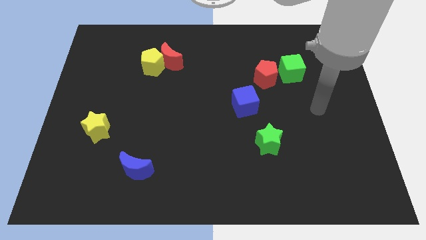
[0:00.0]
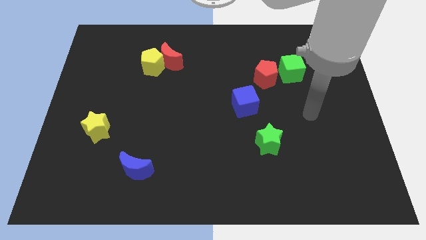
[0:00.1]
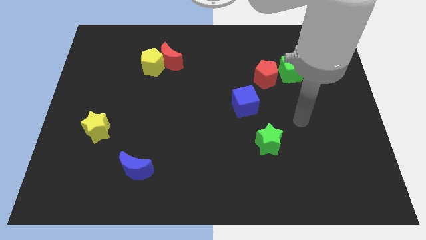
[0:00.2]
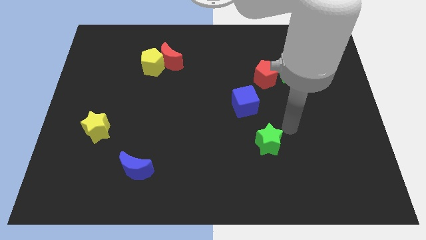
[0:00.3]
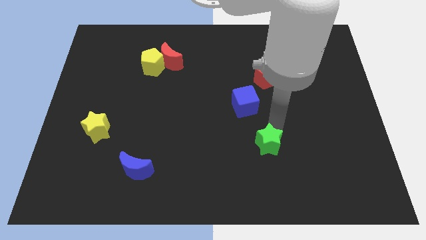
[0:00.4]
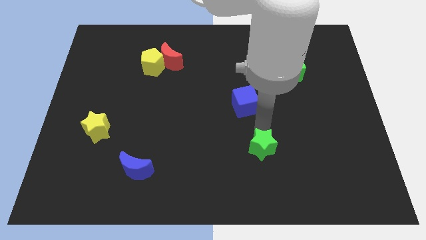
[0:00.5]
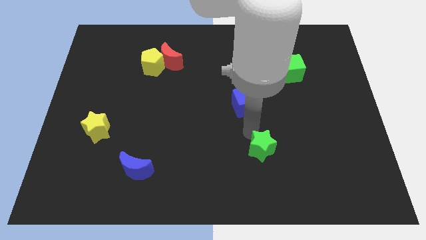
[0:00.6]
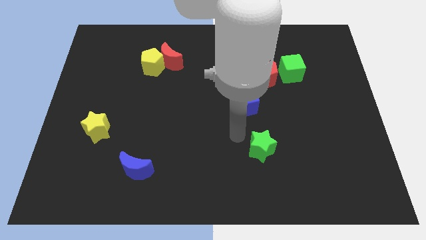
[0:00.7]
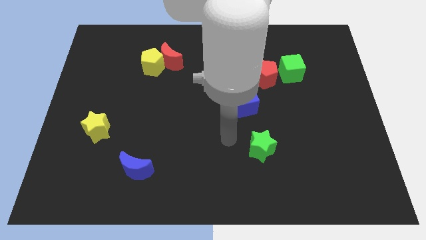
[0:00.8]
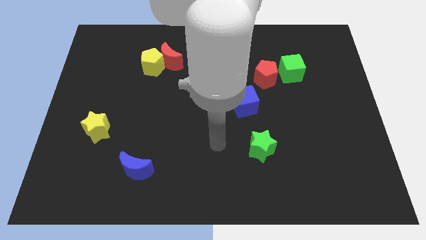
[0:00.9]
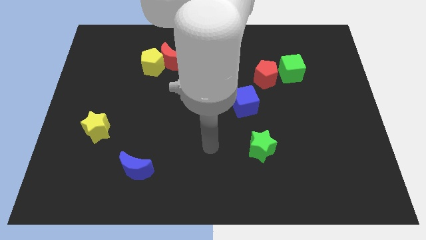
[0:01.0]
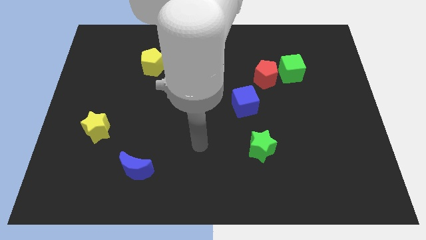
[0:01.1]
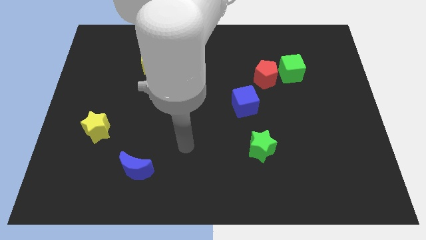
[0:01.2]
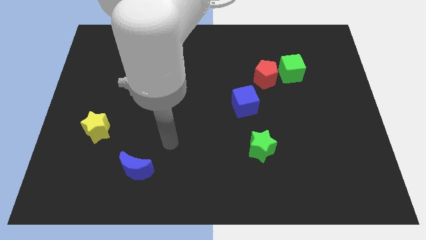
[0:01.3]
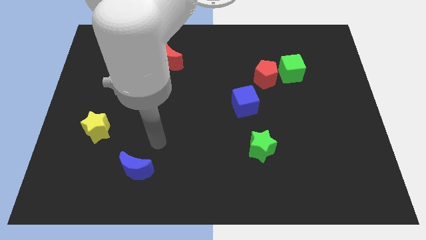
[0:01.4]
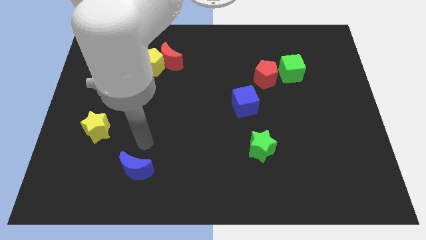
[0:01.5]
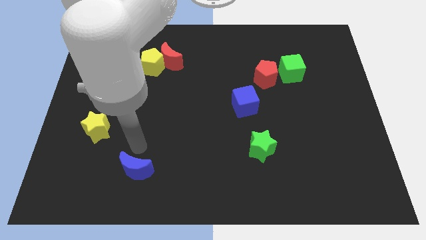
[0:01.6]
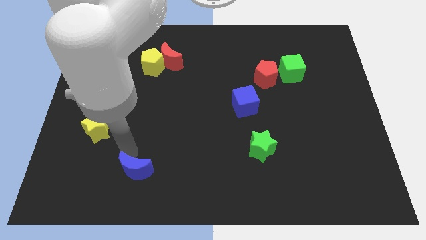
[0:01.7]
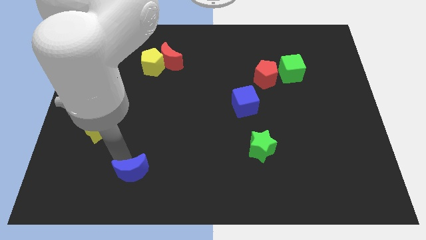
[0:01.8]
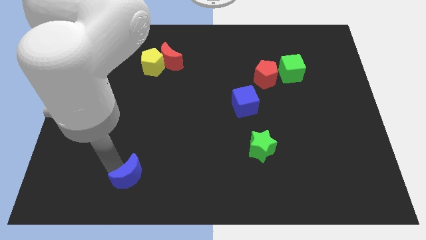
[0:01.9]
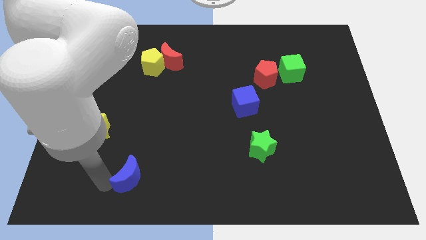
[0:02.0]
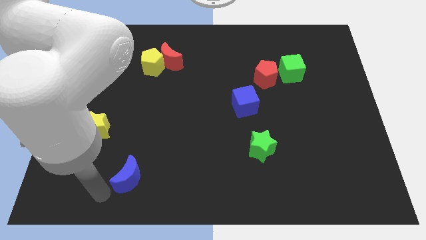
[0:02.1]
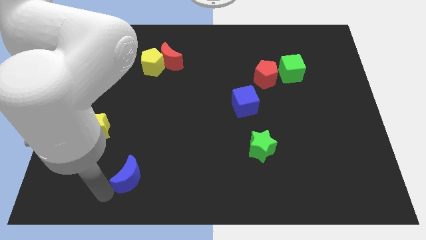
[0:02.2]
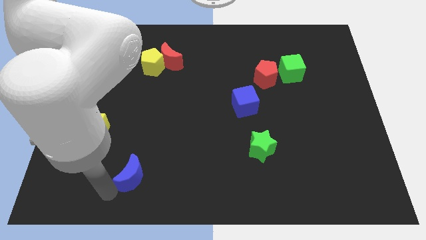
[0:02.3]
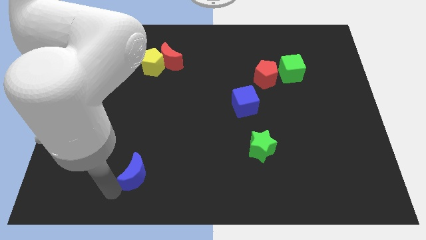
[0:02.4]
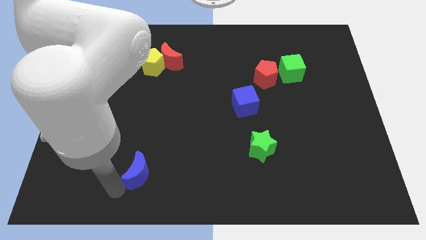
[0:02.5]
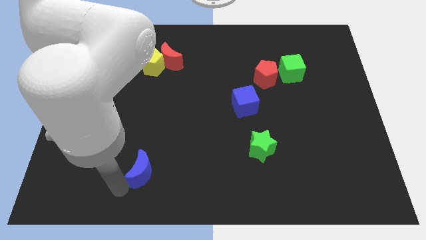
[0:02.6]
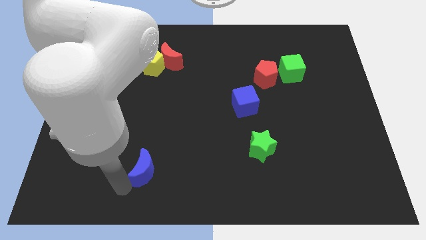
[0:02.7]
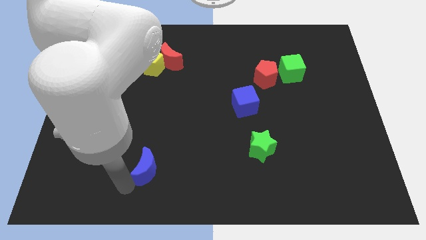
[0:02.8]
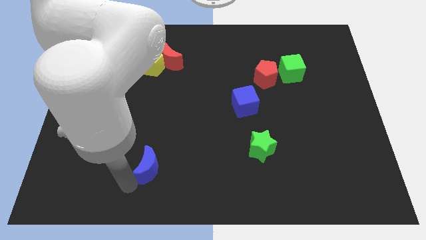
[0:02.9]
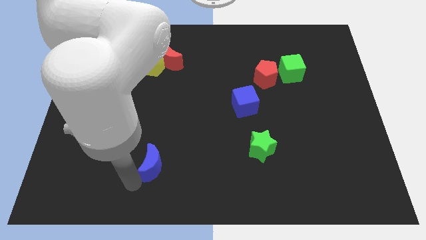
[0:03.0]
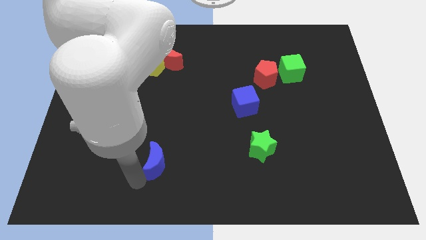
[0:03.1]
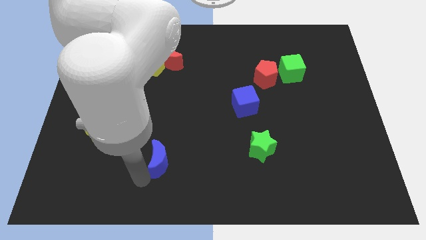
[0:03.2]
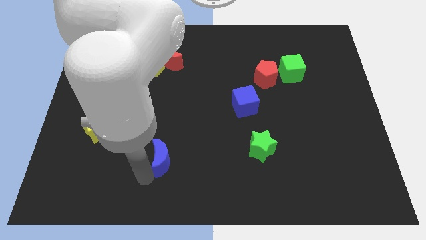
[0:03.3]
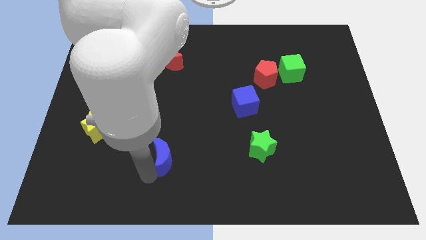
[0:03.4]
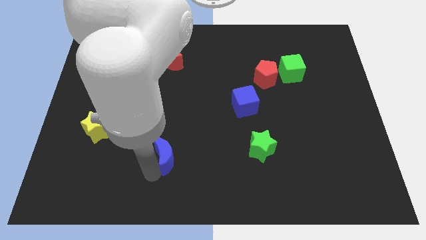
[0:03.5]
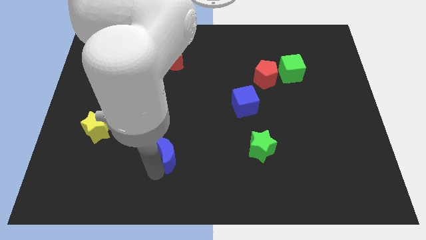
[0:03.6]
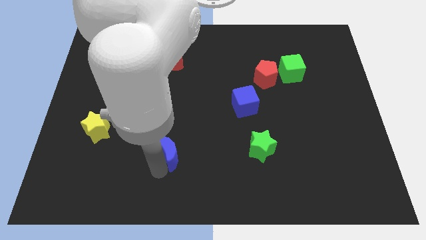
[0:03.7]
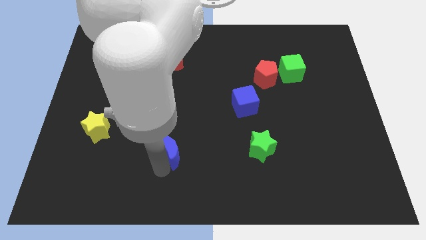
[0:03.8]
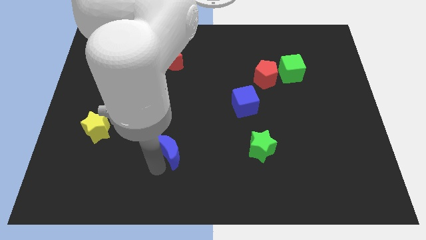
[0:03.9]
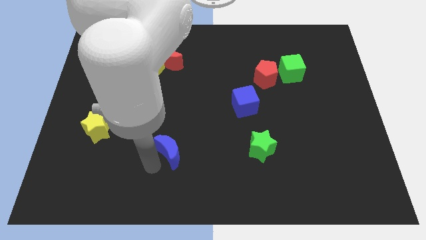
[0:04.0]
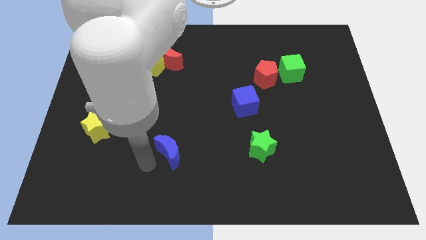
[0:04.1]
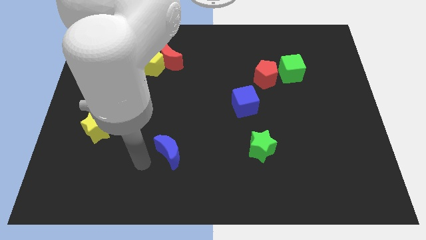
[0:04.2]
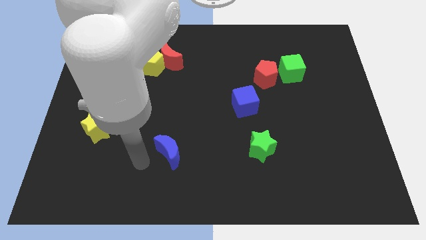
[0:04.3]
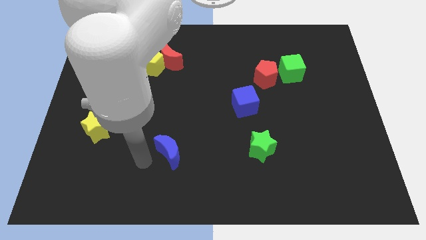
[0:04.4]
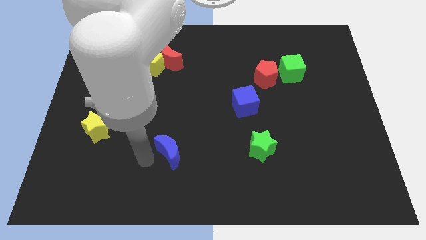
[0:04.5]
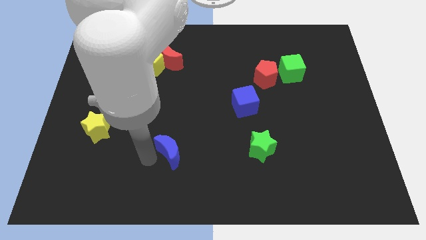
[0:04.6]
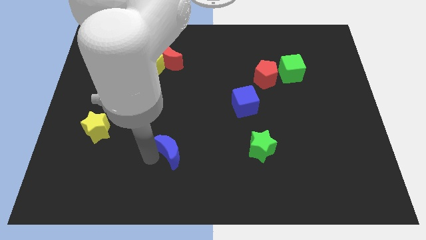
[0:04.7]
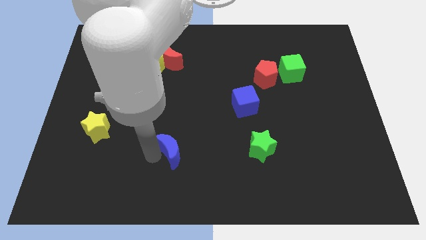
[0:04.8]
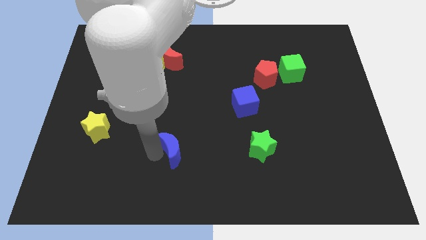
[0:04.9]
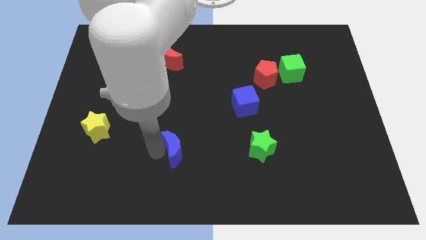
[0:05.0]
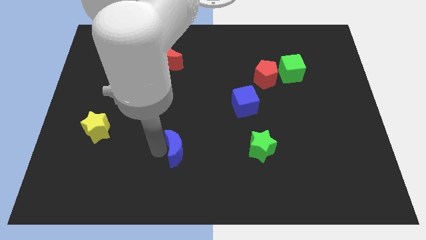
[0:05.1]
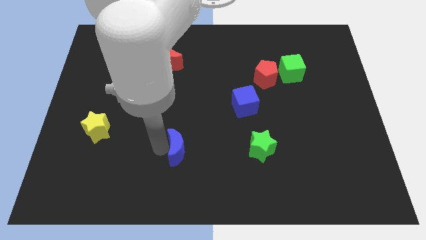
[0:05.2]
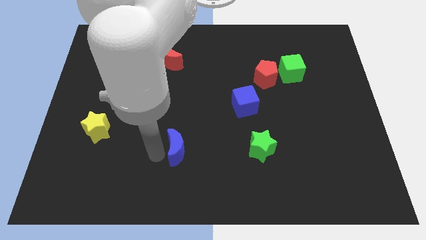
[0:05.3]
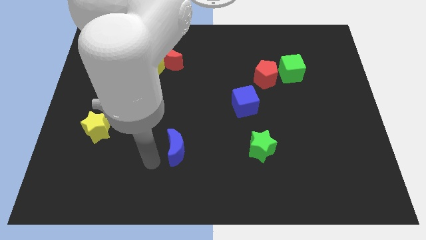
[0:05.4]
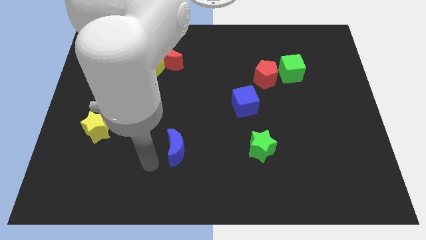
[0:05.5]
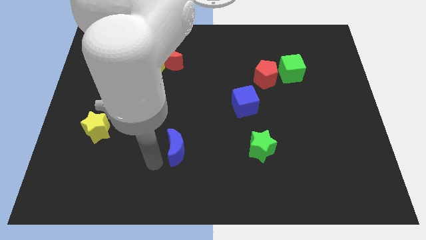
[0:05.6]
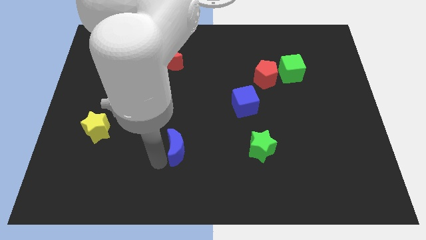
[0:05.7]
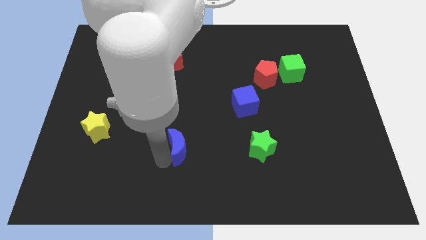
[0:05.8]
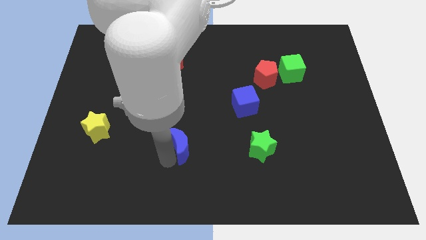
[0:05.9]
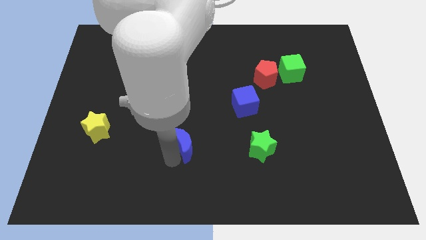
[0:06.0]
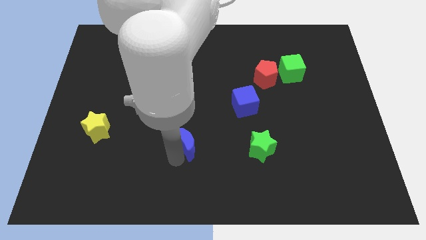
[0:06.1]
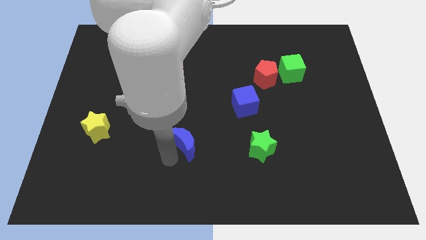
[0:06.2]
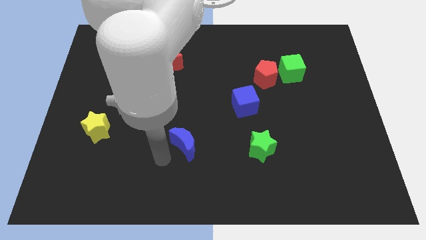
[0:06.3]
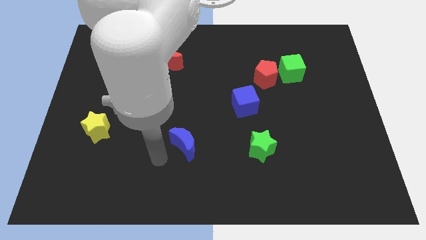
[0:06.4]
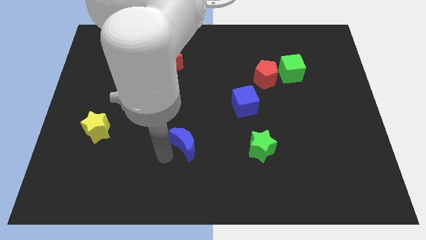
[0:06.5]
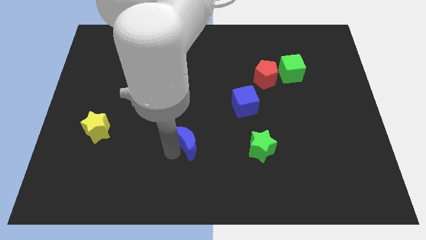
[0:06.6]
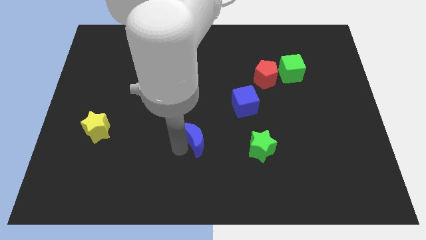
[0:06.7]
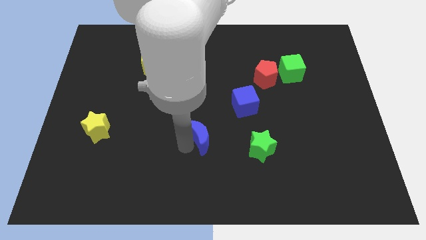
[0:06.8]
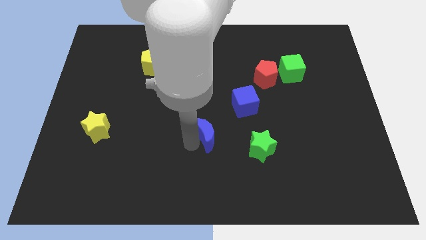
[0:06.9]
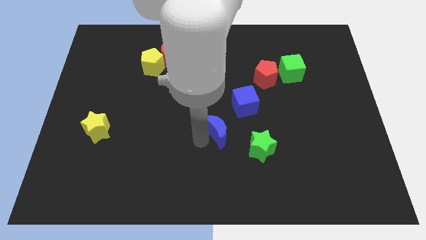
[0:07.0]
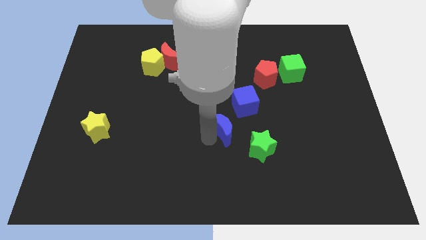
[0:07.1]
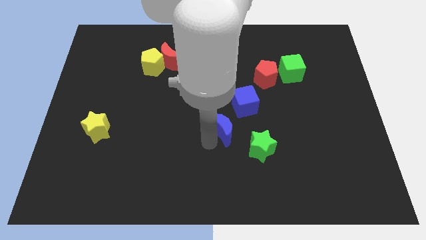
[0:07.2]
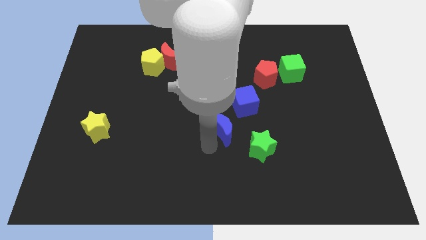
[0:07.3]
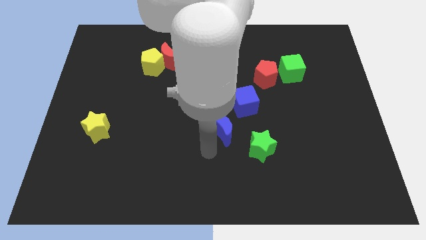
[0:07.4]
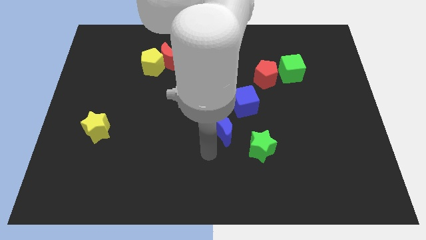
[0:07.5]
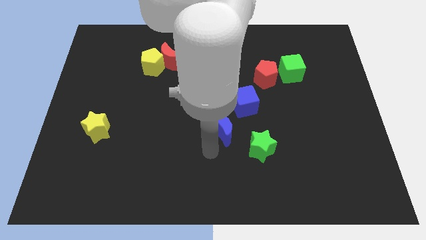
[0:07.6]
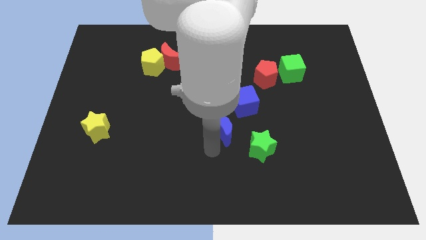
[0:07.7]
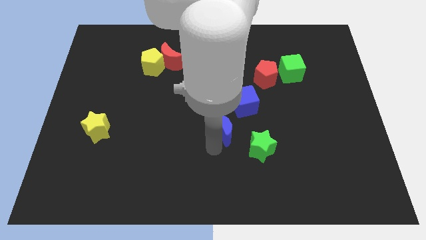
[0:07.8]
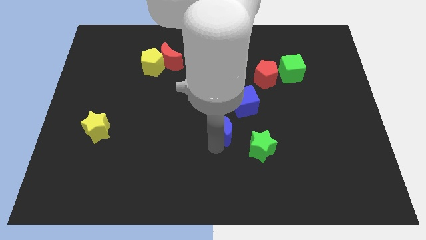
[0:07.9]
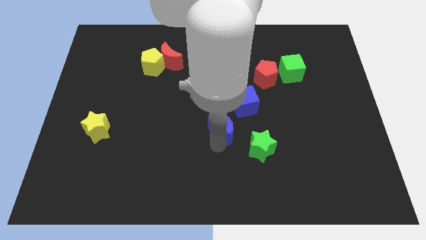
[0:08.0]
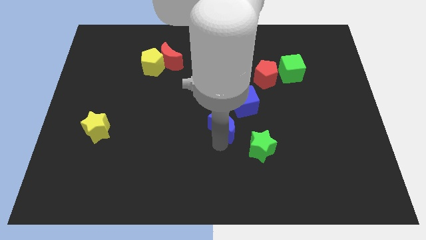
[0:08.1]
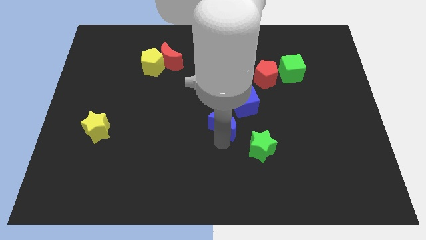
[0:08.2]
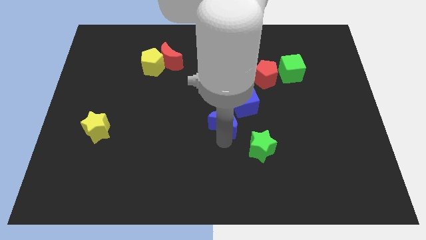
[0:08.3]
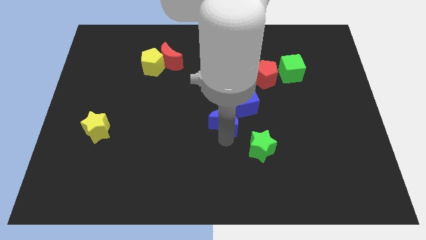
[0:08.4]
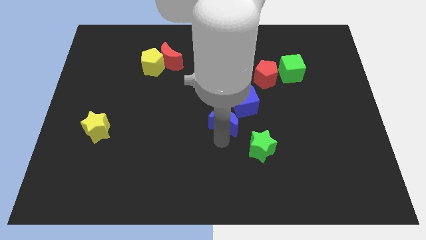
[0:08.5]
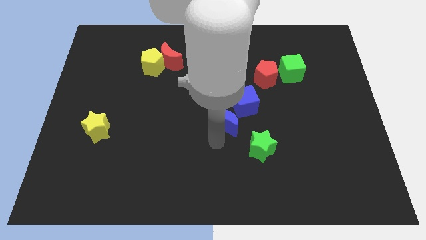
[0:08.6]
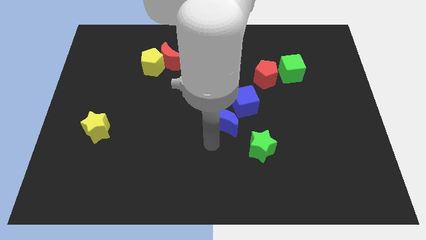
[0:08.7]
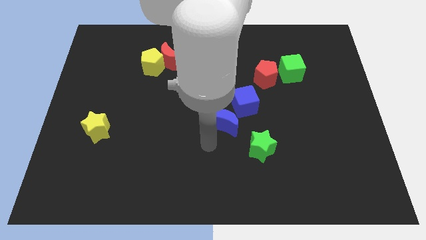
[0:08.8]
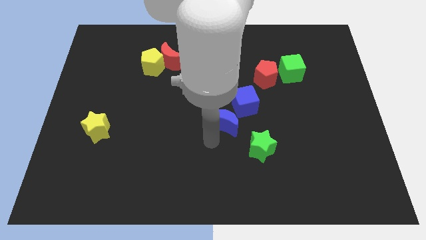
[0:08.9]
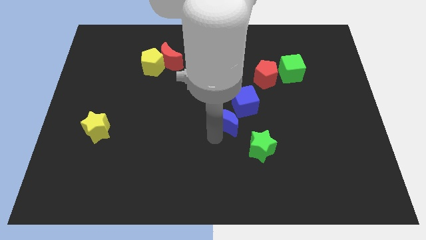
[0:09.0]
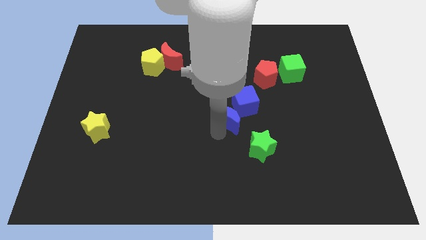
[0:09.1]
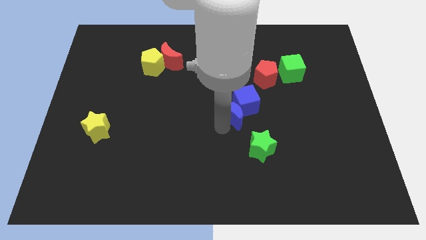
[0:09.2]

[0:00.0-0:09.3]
put the blue moon close to the blue cube
